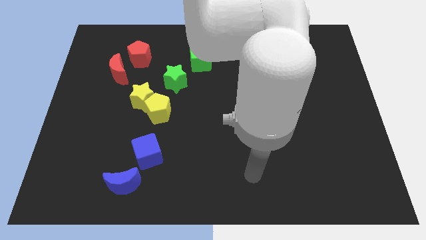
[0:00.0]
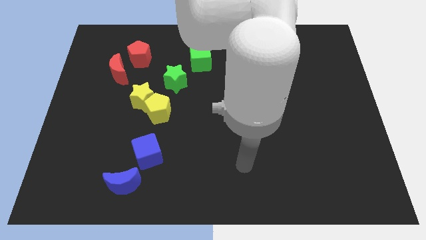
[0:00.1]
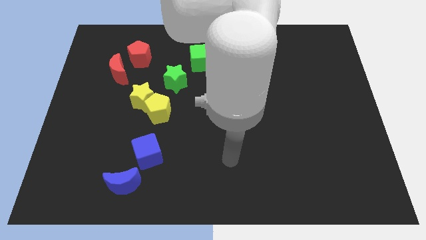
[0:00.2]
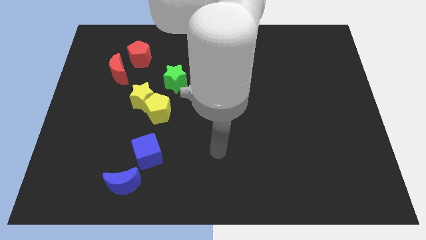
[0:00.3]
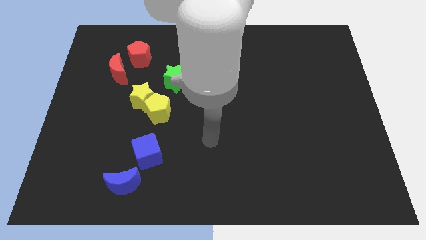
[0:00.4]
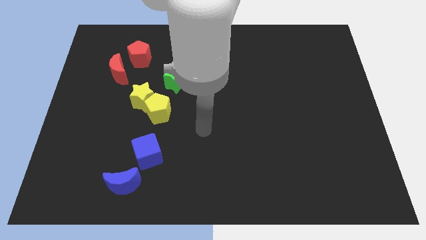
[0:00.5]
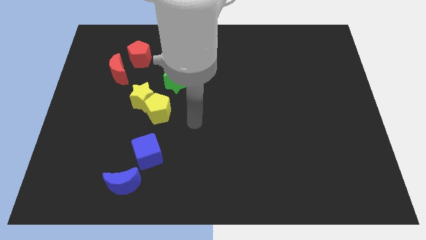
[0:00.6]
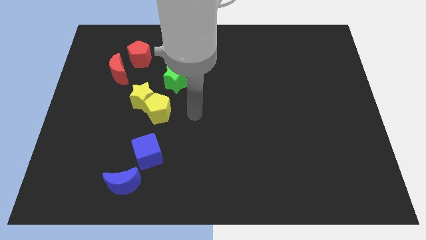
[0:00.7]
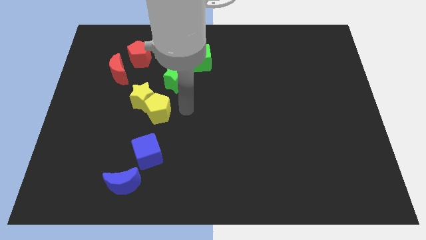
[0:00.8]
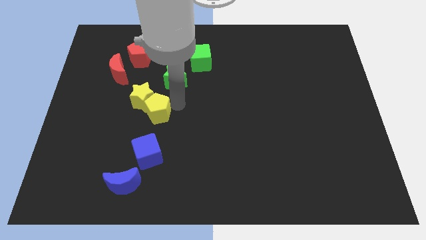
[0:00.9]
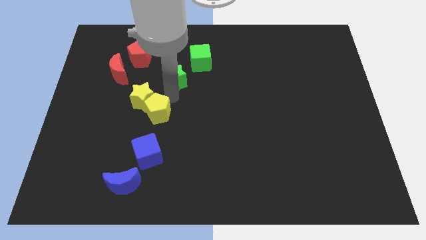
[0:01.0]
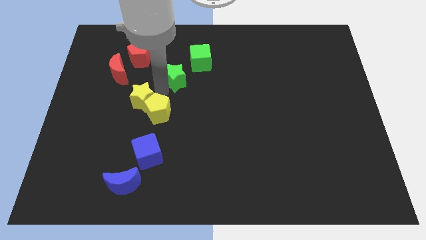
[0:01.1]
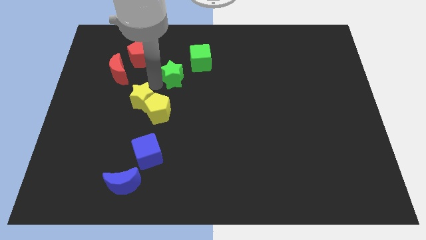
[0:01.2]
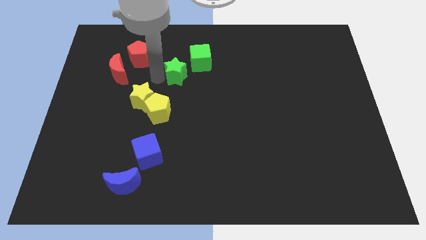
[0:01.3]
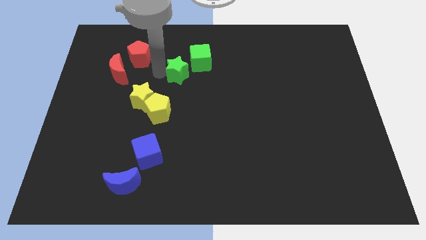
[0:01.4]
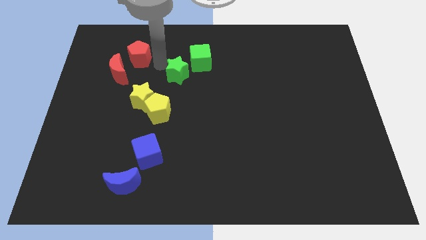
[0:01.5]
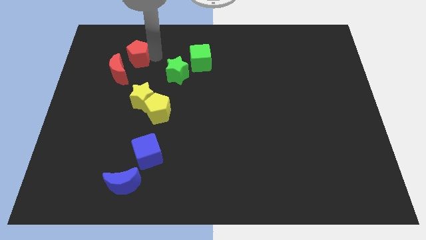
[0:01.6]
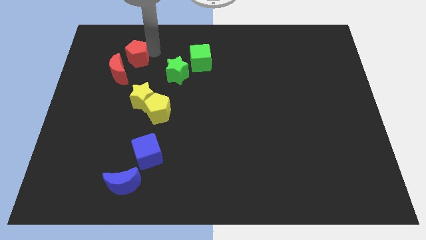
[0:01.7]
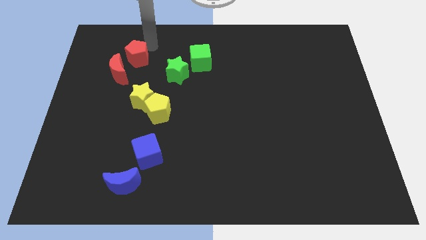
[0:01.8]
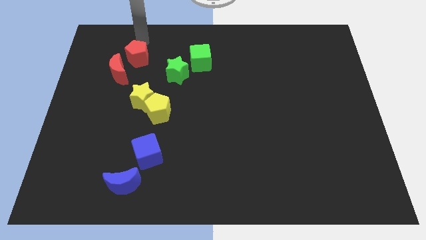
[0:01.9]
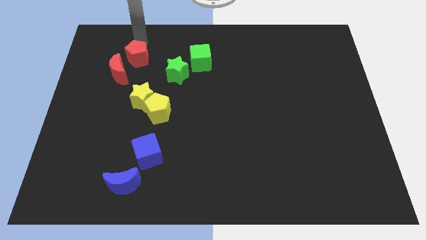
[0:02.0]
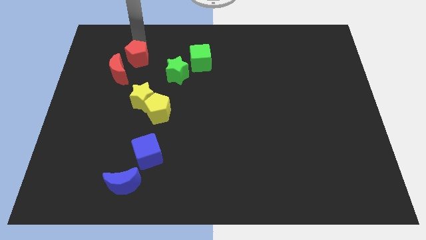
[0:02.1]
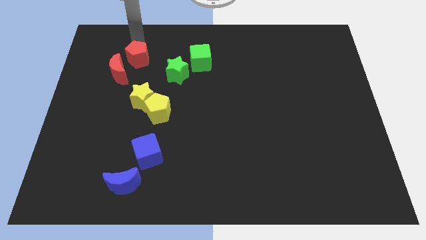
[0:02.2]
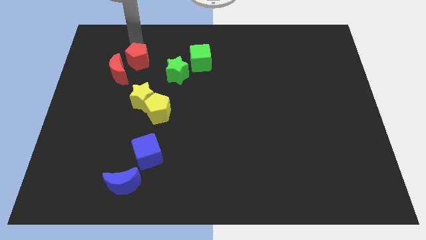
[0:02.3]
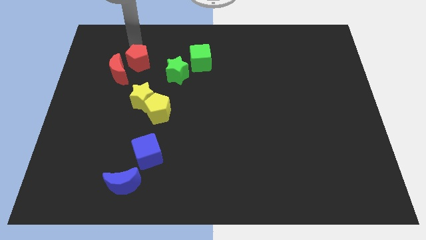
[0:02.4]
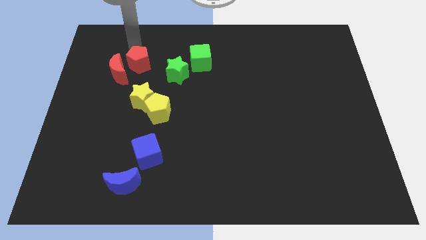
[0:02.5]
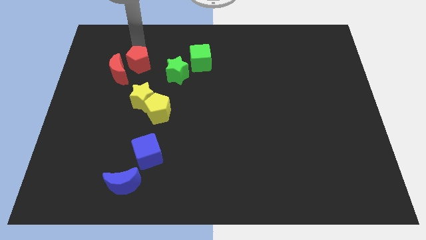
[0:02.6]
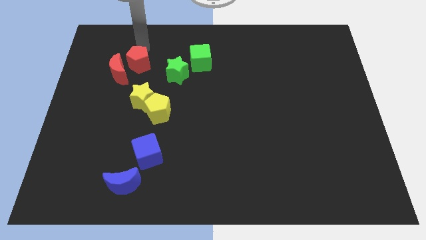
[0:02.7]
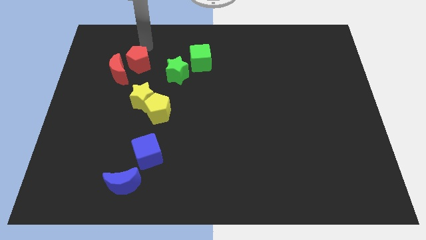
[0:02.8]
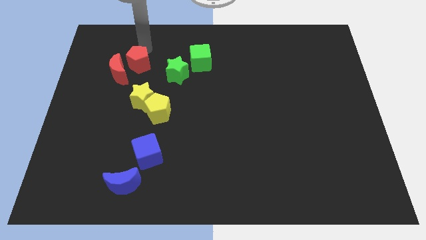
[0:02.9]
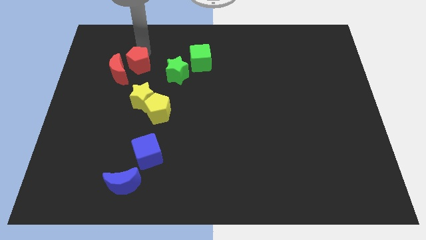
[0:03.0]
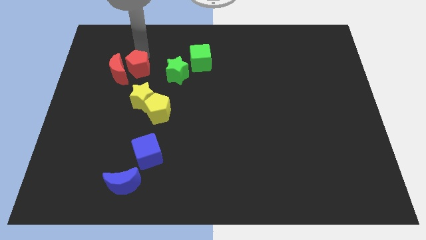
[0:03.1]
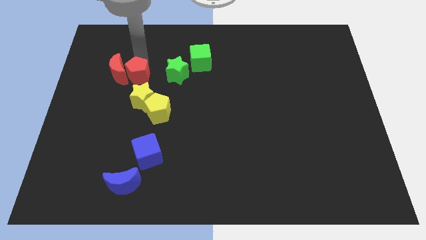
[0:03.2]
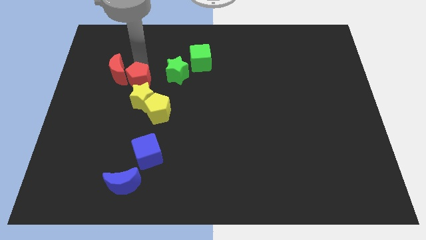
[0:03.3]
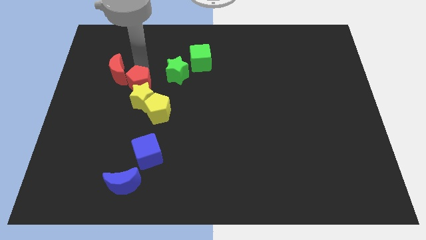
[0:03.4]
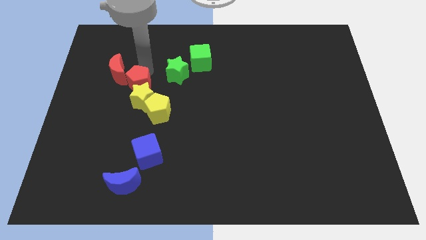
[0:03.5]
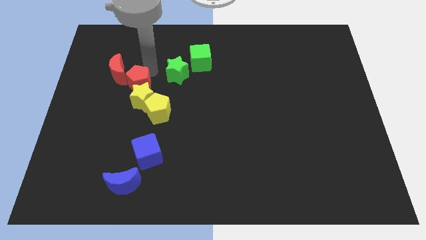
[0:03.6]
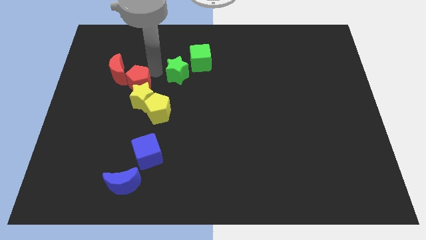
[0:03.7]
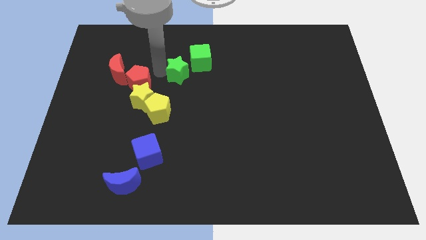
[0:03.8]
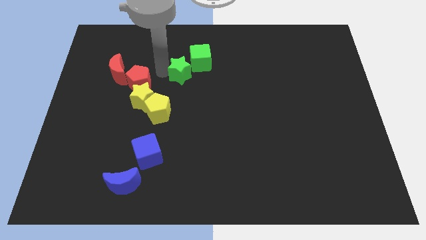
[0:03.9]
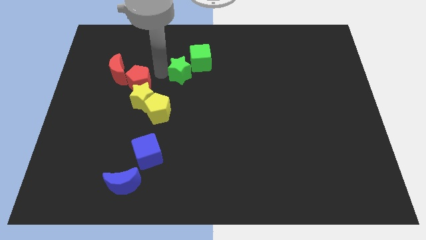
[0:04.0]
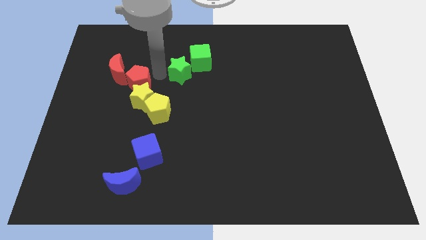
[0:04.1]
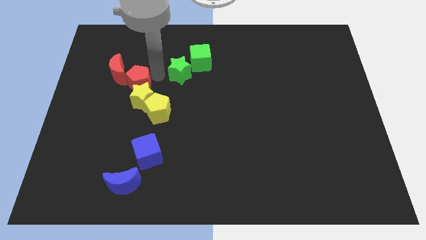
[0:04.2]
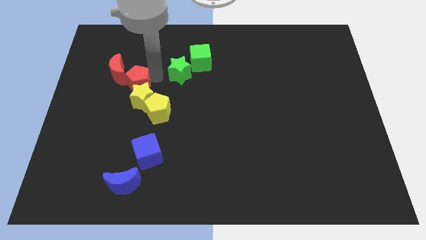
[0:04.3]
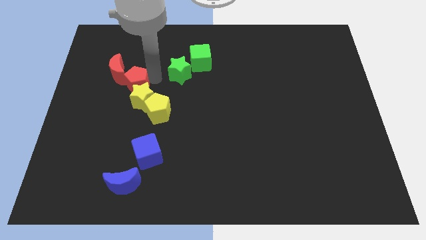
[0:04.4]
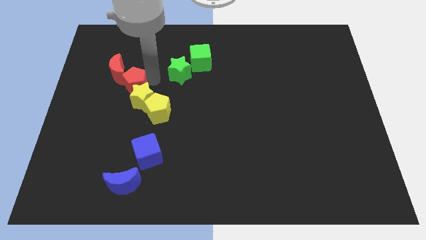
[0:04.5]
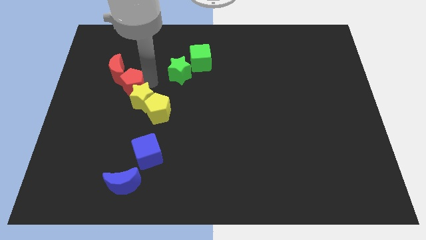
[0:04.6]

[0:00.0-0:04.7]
move the red pentagon below the red moon

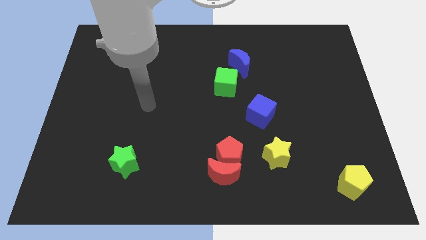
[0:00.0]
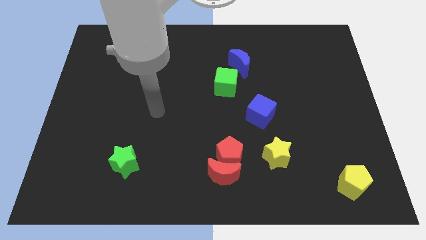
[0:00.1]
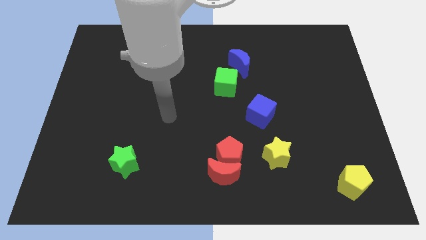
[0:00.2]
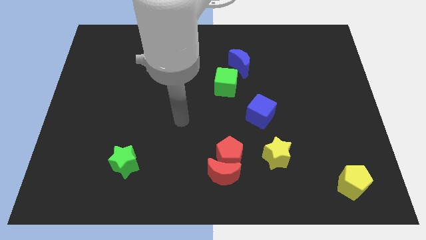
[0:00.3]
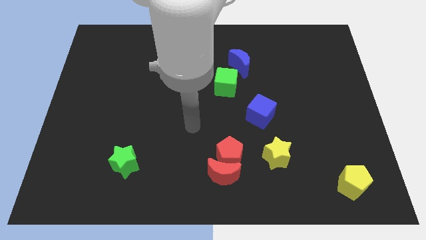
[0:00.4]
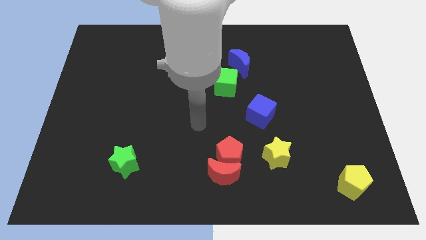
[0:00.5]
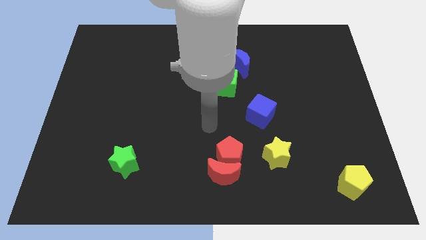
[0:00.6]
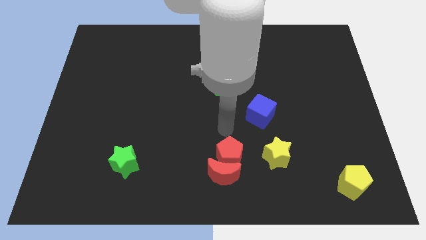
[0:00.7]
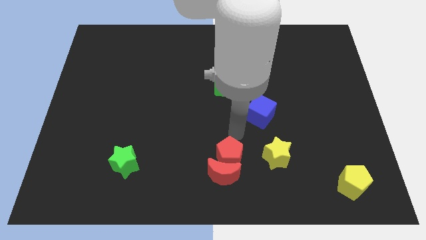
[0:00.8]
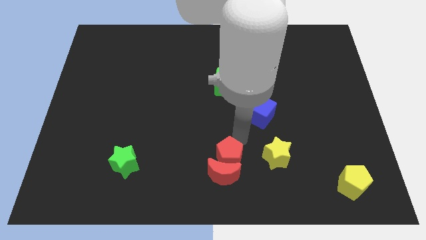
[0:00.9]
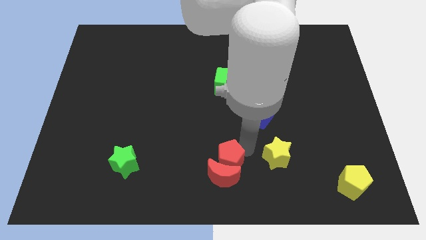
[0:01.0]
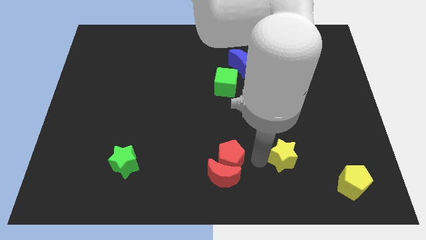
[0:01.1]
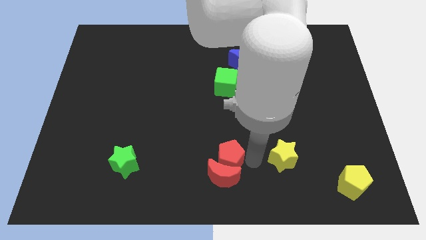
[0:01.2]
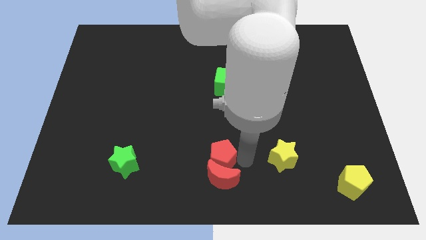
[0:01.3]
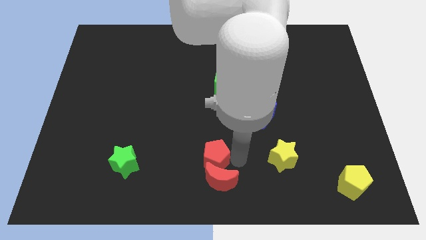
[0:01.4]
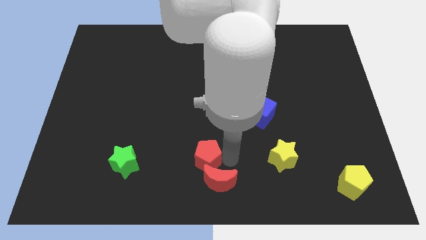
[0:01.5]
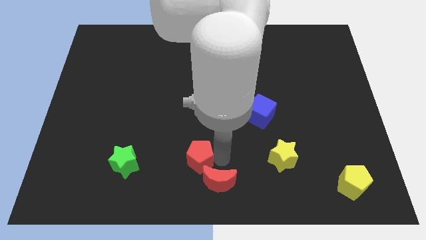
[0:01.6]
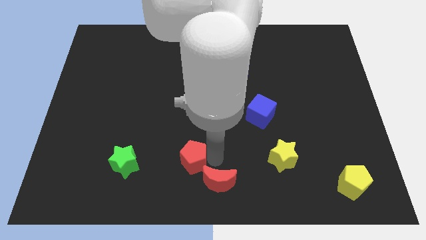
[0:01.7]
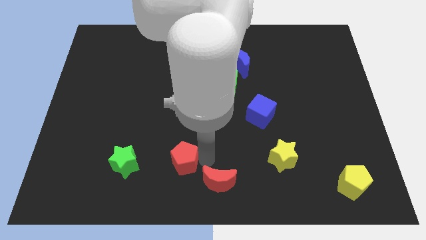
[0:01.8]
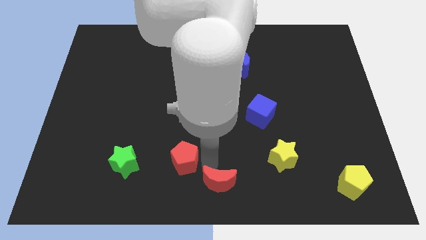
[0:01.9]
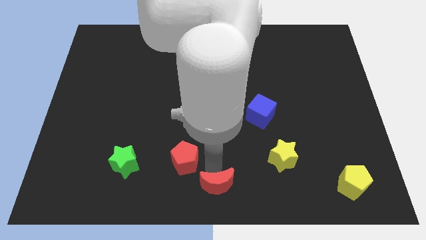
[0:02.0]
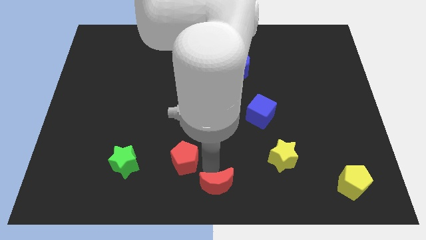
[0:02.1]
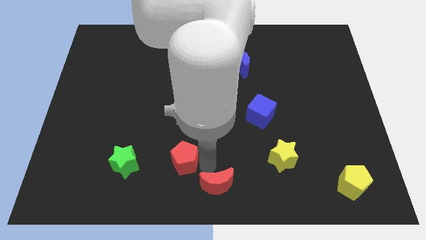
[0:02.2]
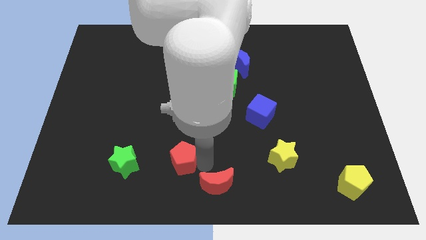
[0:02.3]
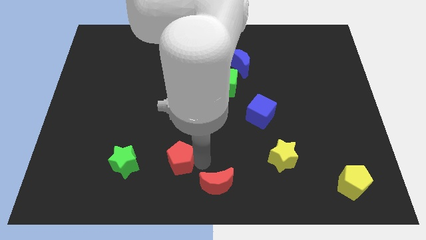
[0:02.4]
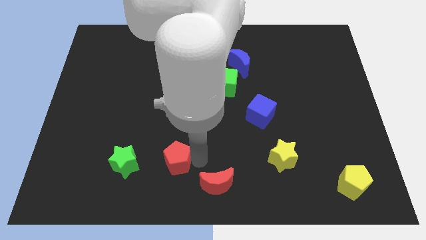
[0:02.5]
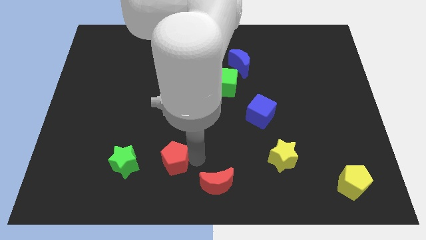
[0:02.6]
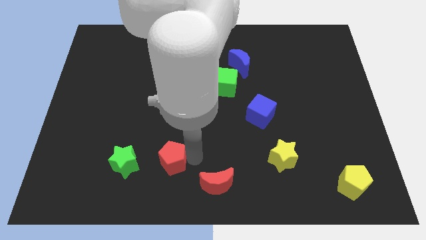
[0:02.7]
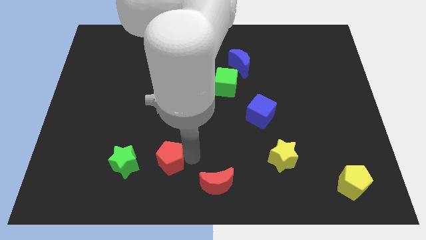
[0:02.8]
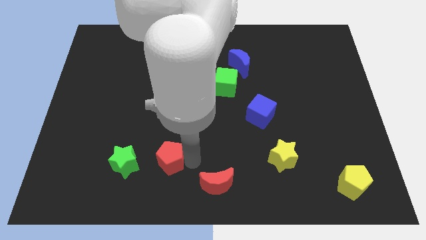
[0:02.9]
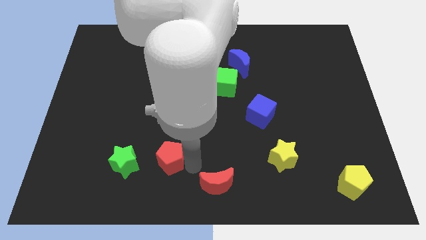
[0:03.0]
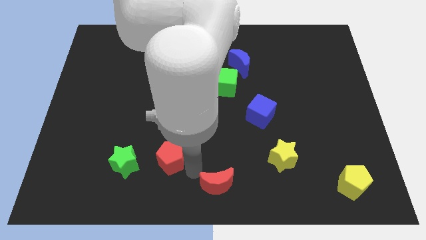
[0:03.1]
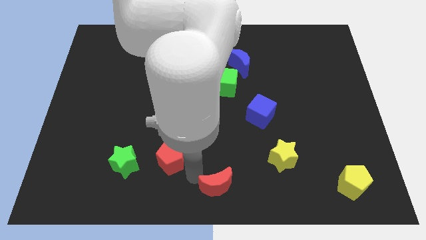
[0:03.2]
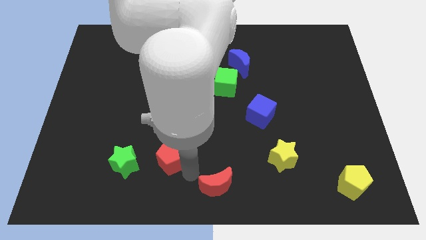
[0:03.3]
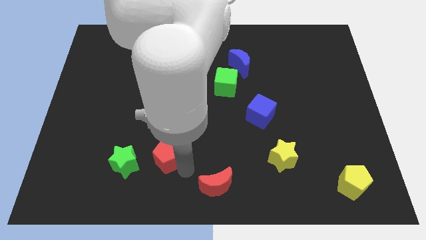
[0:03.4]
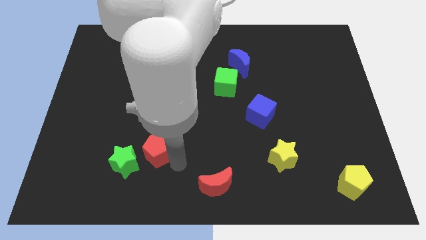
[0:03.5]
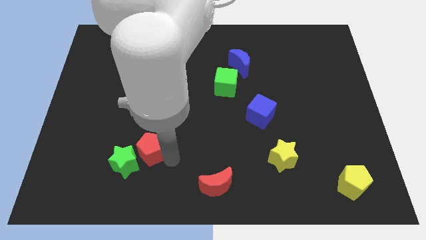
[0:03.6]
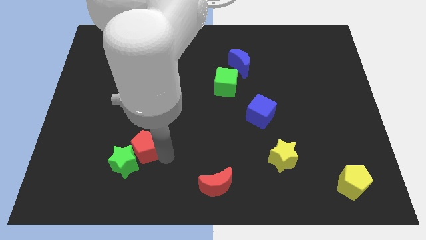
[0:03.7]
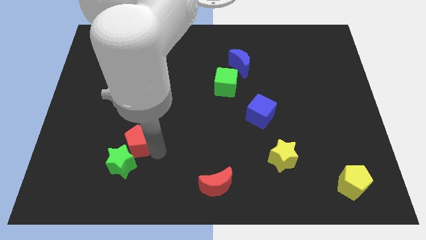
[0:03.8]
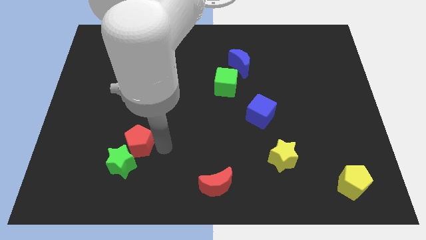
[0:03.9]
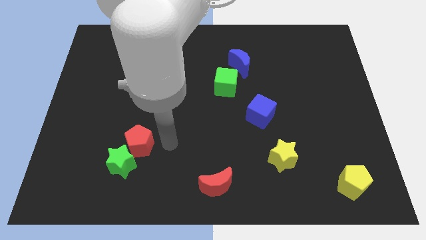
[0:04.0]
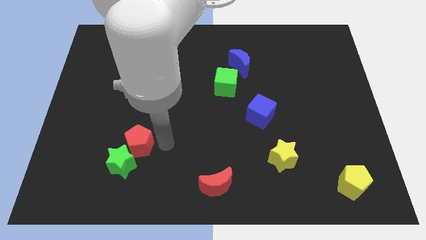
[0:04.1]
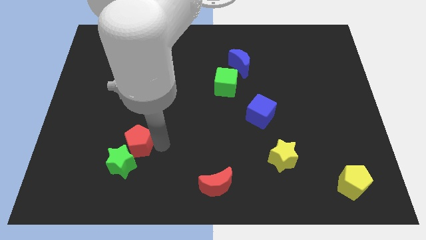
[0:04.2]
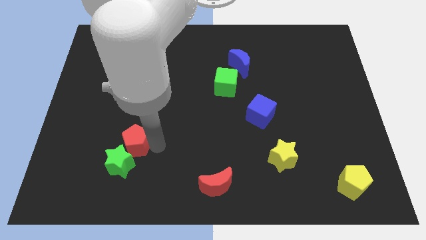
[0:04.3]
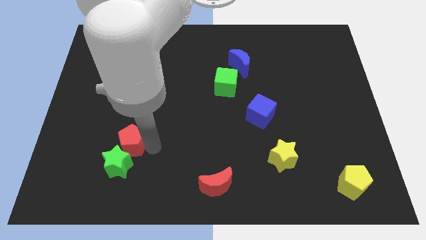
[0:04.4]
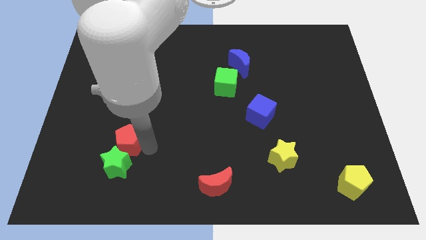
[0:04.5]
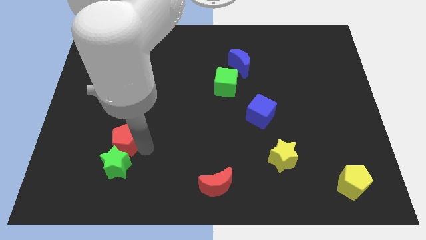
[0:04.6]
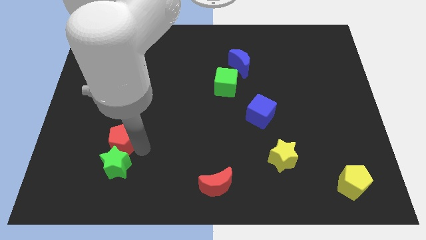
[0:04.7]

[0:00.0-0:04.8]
slide the red pentagon to the top left of the green star
